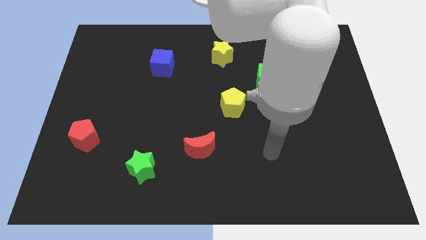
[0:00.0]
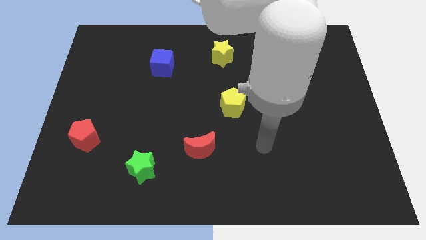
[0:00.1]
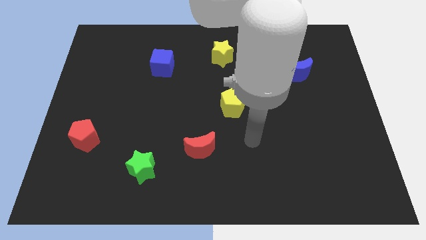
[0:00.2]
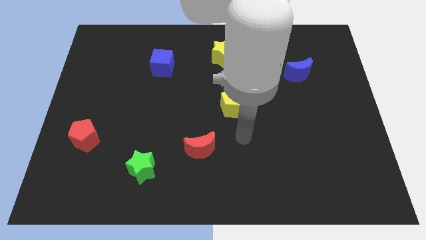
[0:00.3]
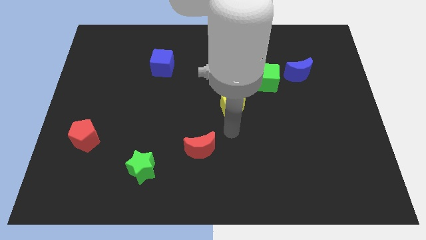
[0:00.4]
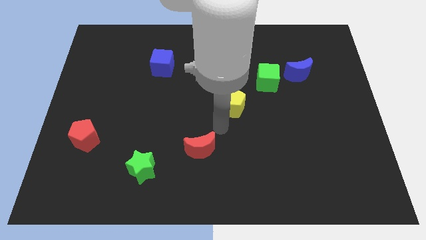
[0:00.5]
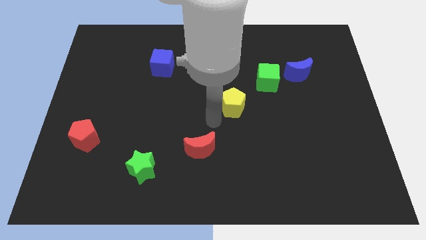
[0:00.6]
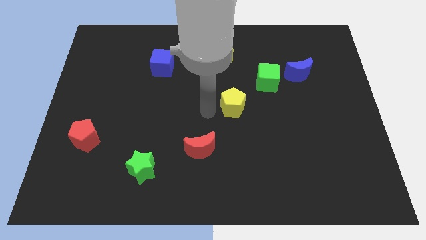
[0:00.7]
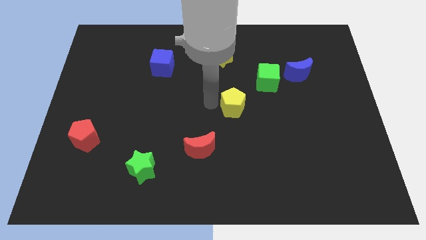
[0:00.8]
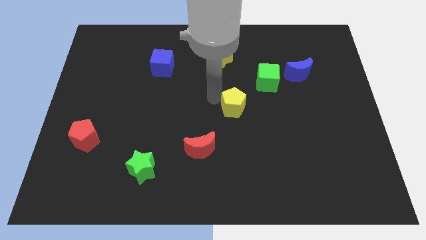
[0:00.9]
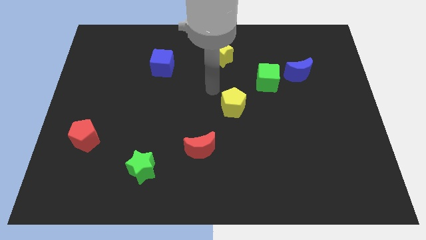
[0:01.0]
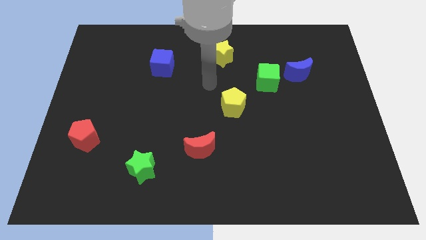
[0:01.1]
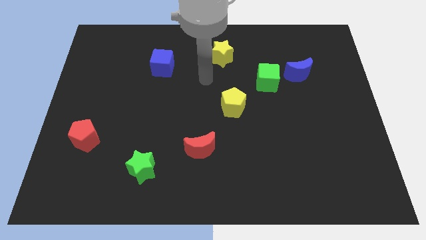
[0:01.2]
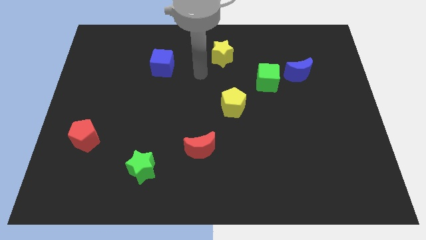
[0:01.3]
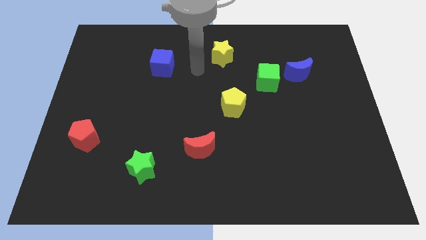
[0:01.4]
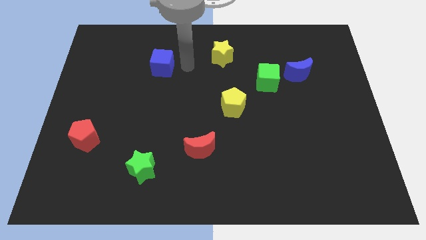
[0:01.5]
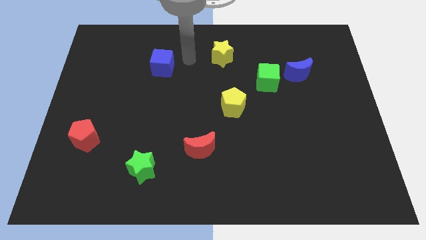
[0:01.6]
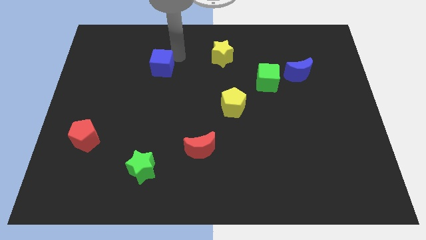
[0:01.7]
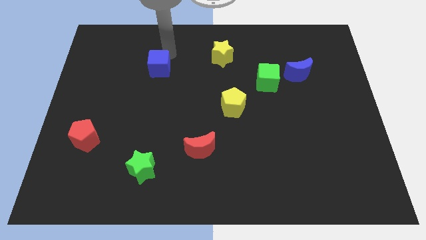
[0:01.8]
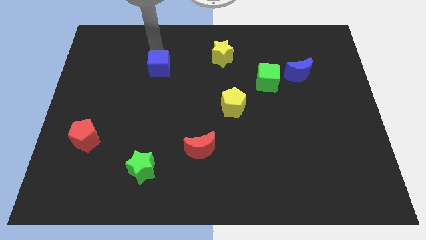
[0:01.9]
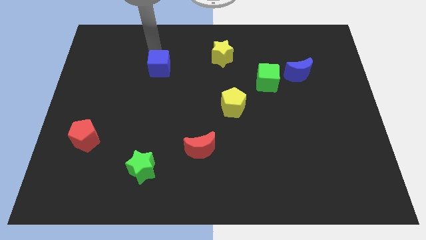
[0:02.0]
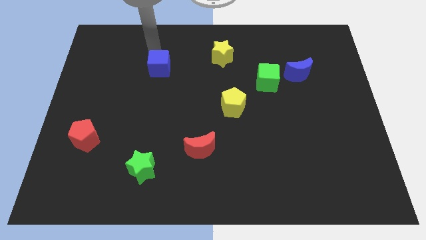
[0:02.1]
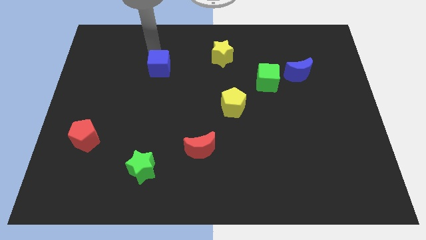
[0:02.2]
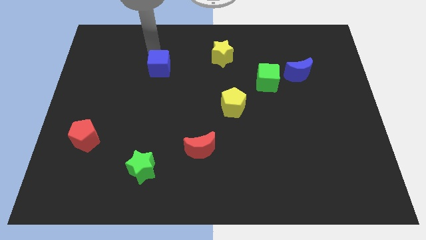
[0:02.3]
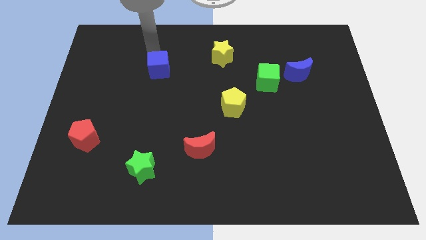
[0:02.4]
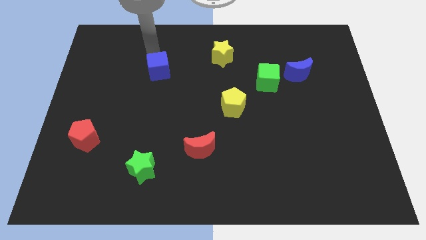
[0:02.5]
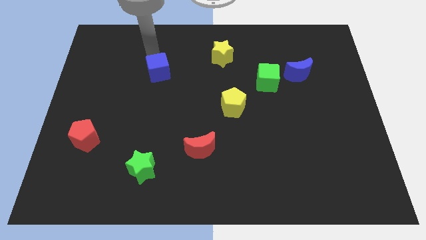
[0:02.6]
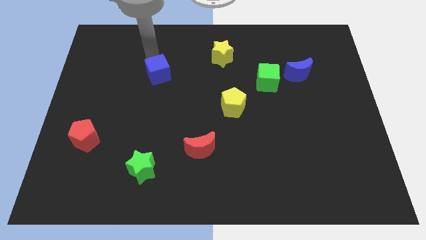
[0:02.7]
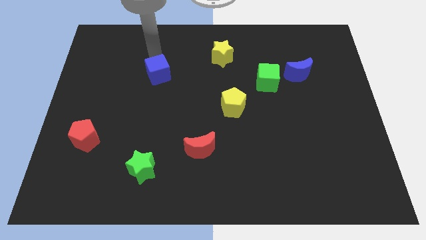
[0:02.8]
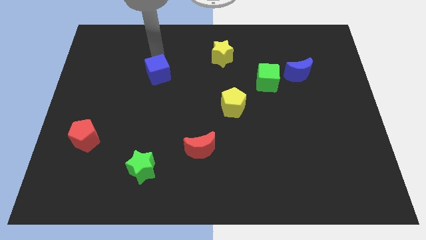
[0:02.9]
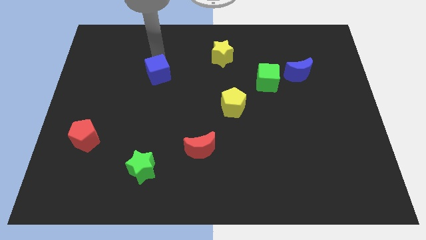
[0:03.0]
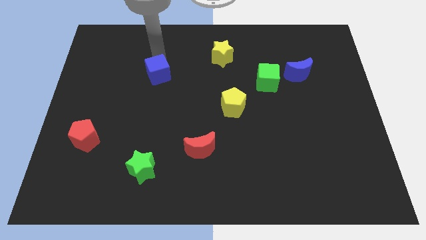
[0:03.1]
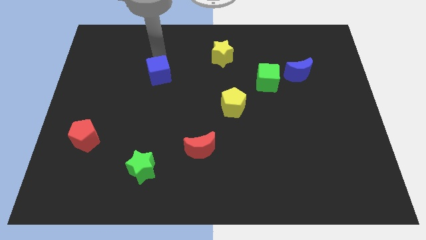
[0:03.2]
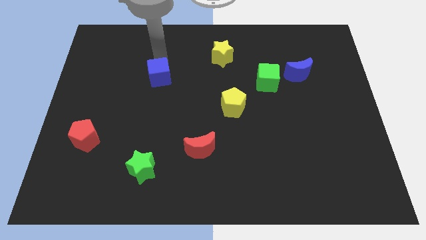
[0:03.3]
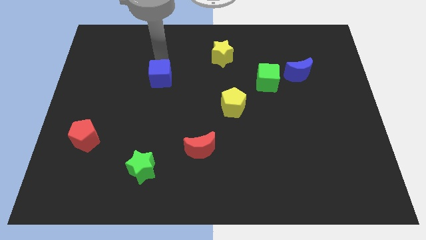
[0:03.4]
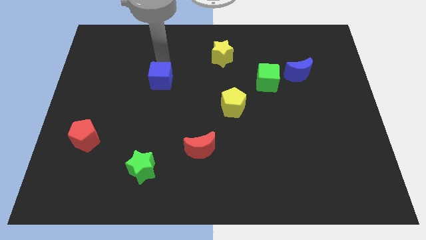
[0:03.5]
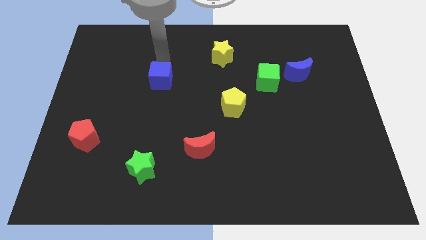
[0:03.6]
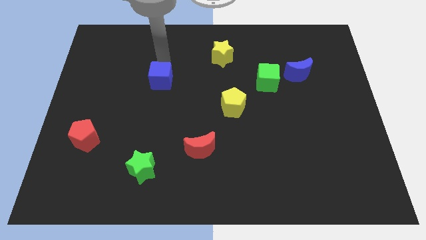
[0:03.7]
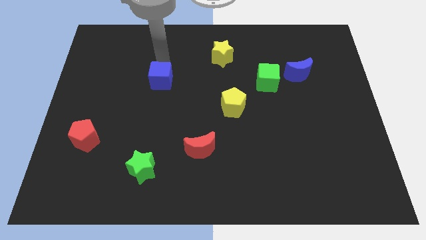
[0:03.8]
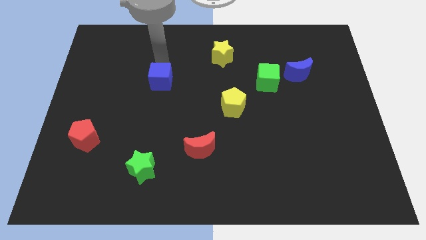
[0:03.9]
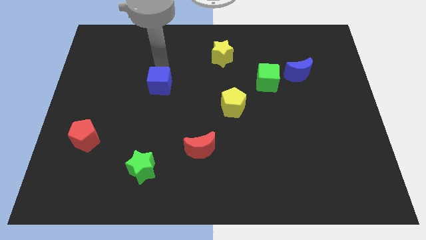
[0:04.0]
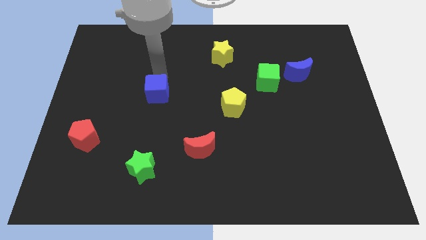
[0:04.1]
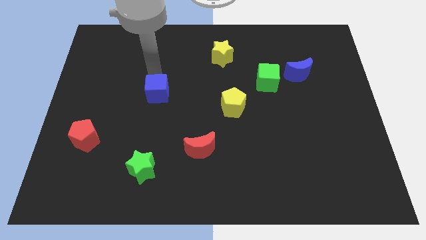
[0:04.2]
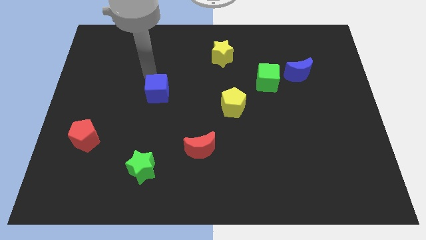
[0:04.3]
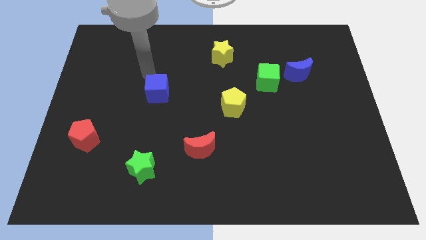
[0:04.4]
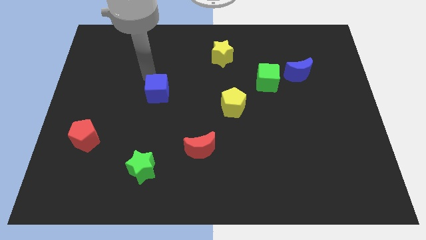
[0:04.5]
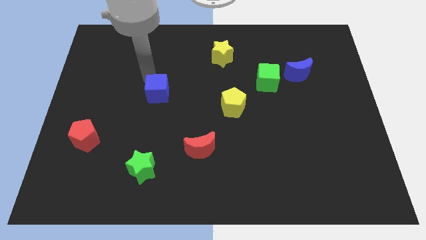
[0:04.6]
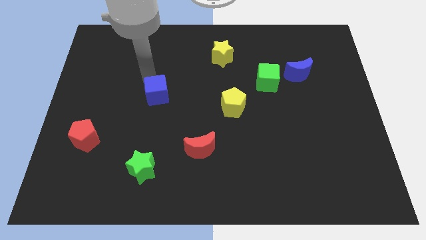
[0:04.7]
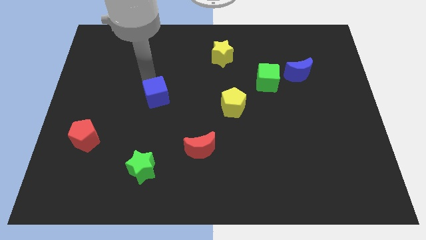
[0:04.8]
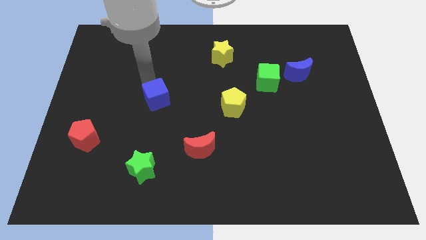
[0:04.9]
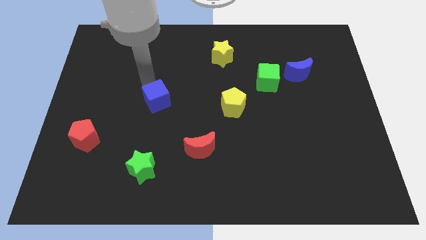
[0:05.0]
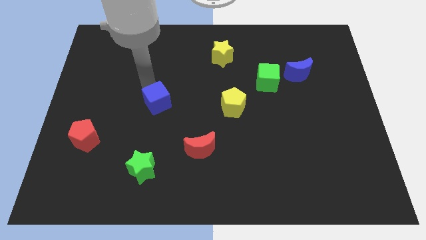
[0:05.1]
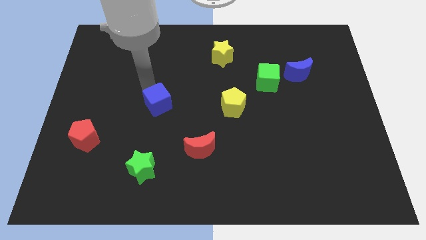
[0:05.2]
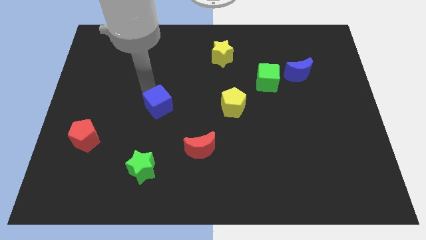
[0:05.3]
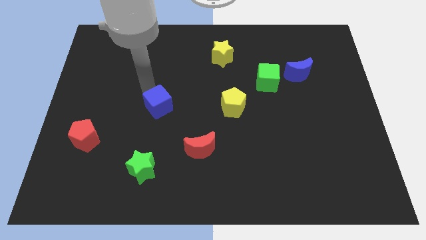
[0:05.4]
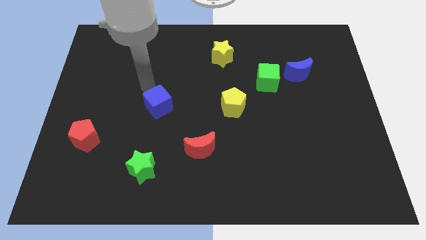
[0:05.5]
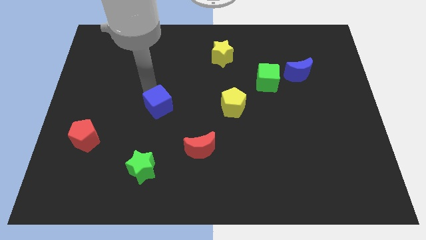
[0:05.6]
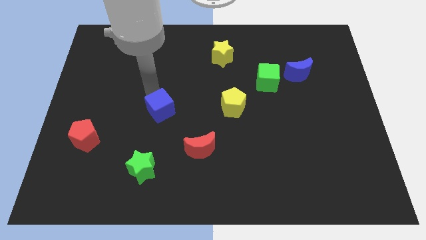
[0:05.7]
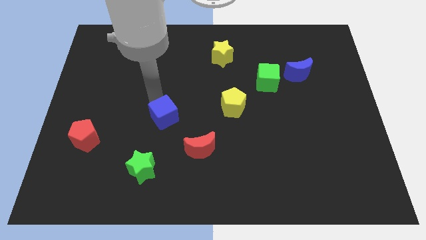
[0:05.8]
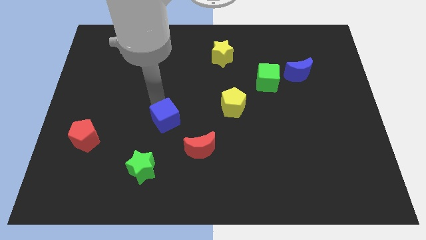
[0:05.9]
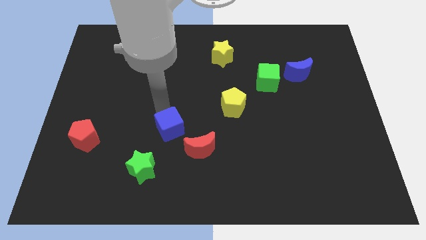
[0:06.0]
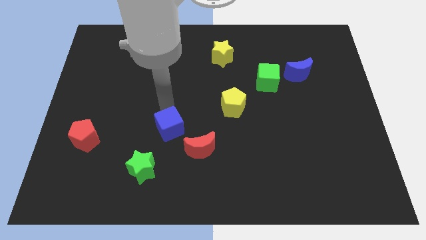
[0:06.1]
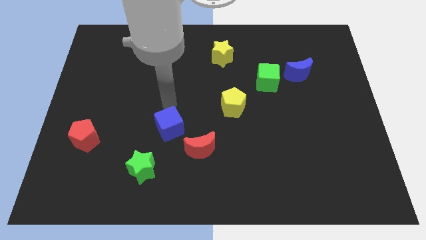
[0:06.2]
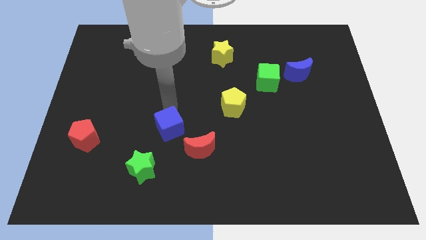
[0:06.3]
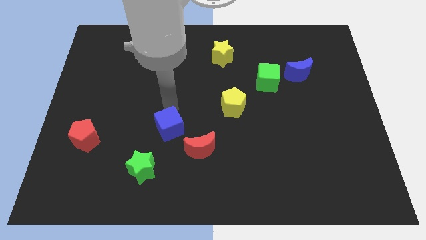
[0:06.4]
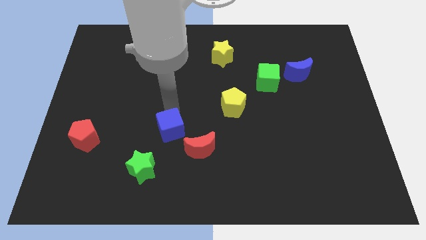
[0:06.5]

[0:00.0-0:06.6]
slide the blue cube to the top right of the green star

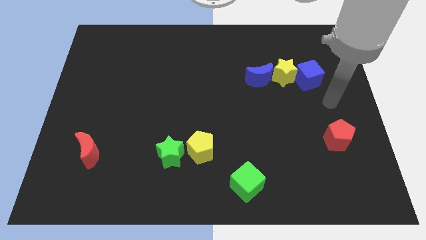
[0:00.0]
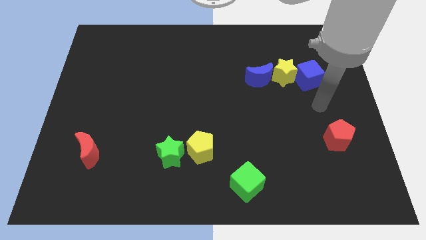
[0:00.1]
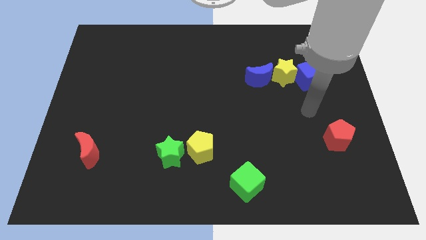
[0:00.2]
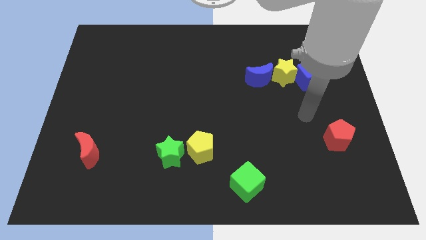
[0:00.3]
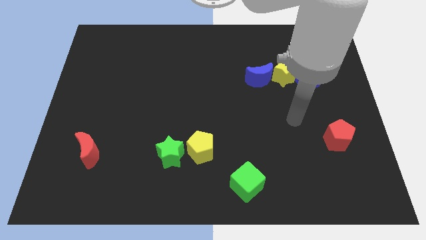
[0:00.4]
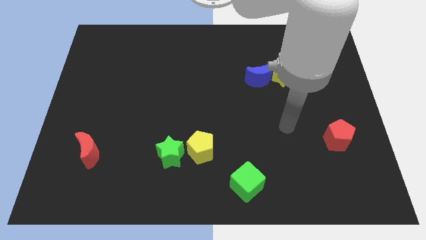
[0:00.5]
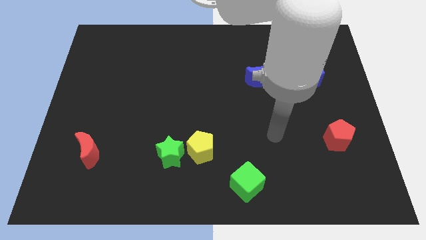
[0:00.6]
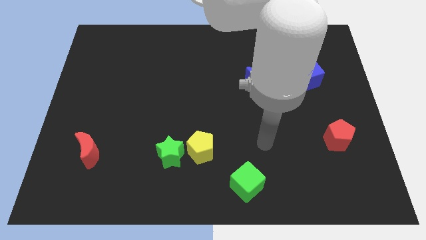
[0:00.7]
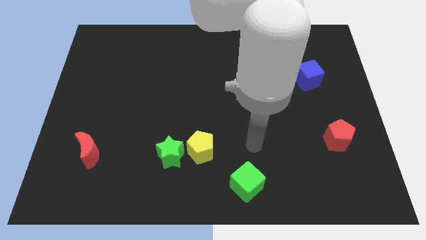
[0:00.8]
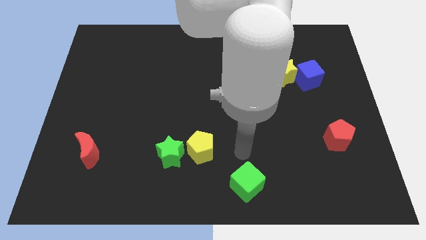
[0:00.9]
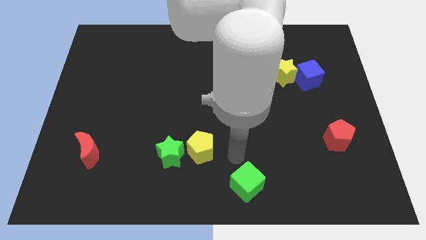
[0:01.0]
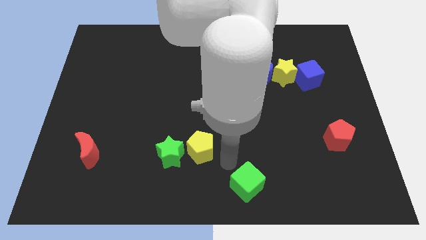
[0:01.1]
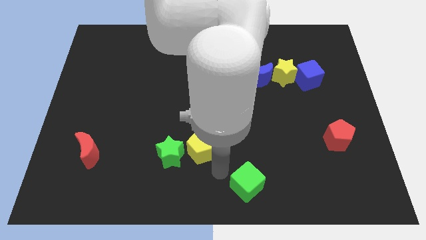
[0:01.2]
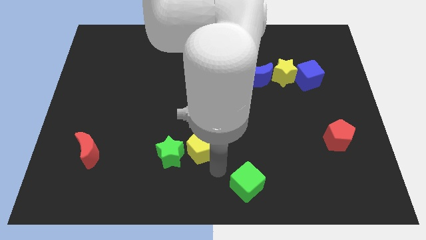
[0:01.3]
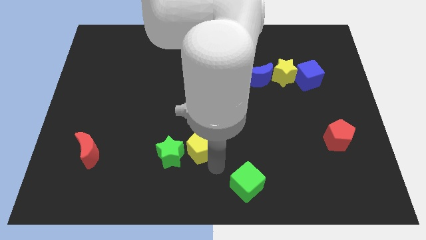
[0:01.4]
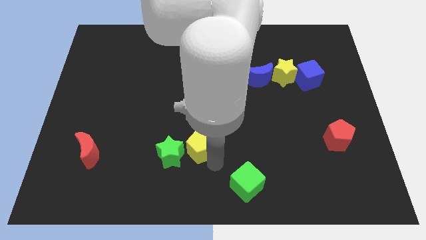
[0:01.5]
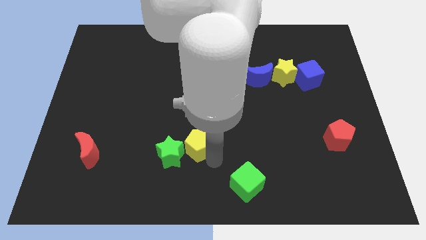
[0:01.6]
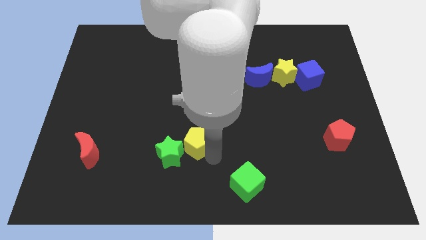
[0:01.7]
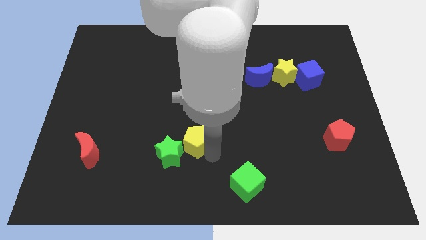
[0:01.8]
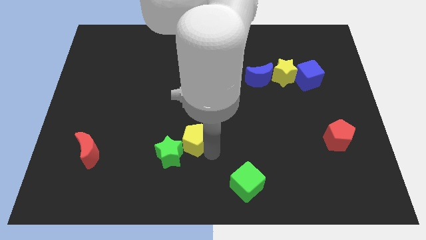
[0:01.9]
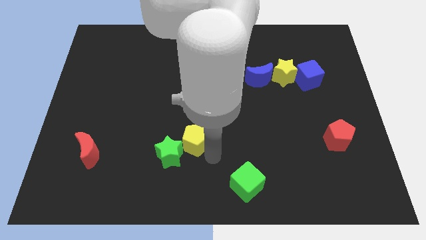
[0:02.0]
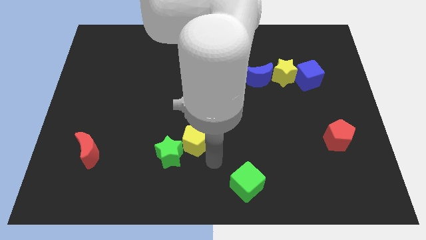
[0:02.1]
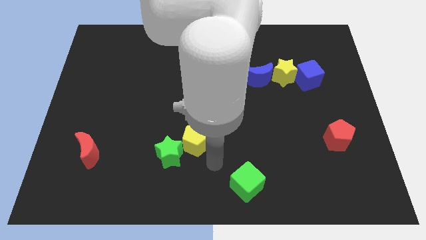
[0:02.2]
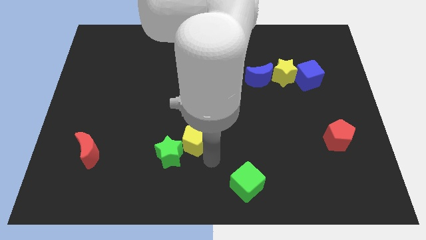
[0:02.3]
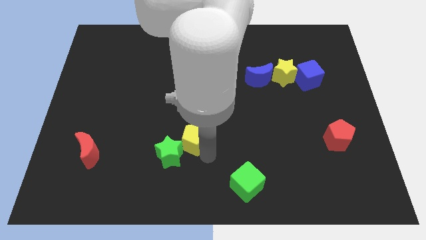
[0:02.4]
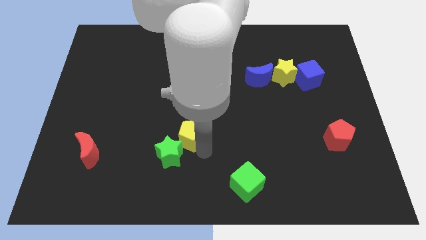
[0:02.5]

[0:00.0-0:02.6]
push the yellow pentagon to the top side of the green star
